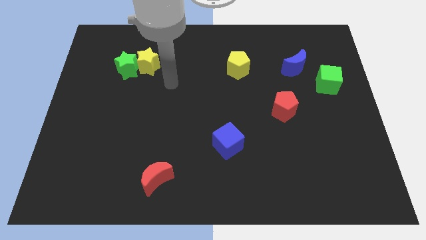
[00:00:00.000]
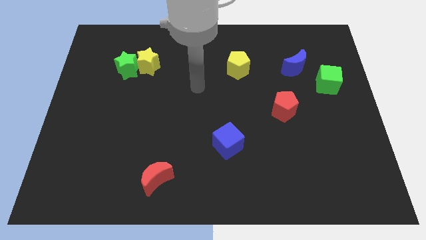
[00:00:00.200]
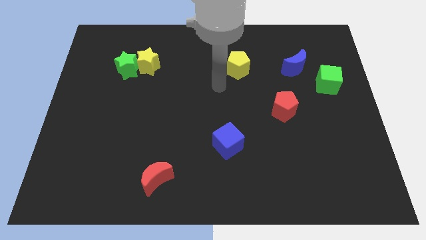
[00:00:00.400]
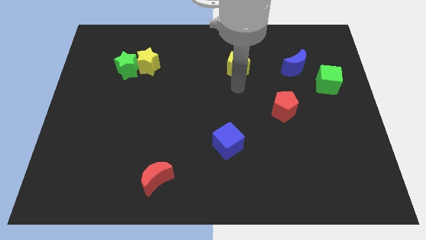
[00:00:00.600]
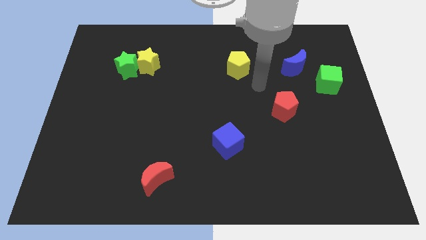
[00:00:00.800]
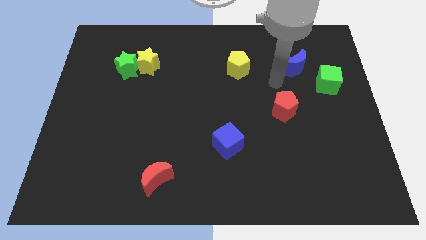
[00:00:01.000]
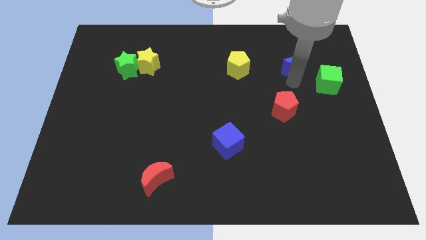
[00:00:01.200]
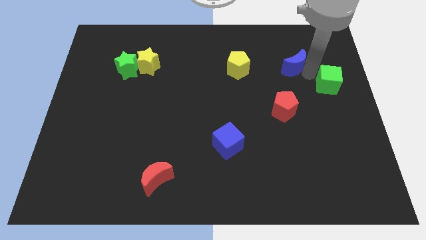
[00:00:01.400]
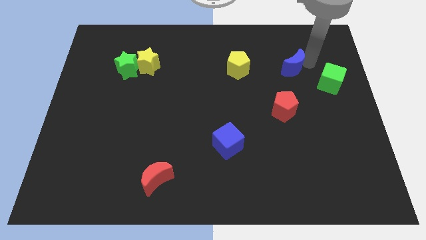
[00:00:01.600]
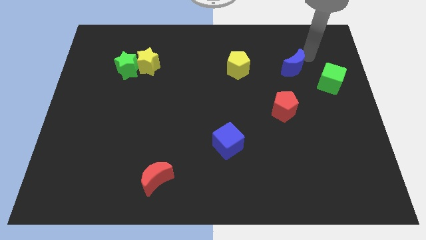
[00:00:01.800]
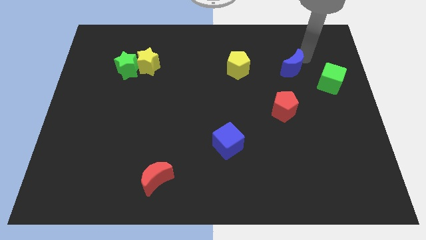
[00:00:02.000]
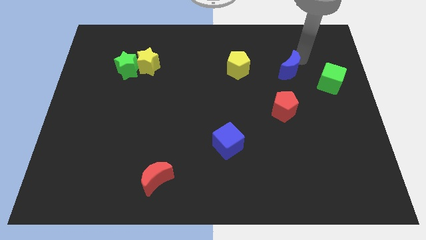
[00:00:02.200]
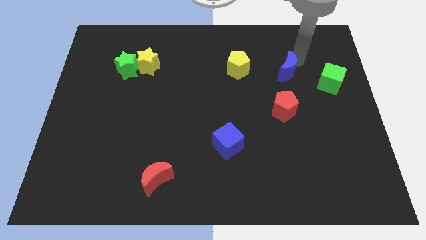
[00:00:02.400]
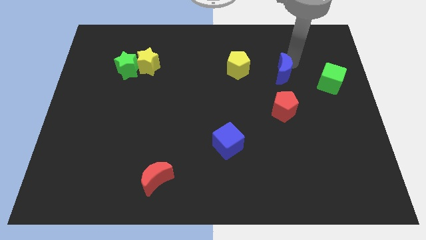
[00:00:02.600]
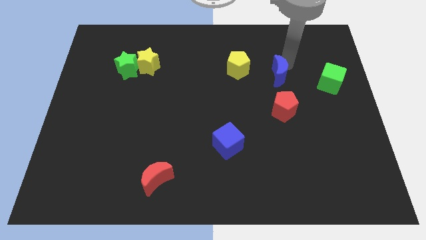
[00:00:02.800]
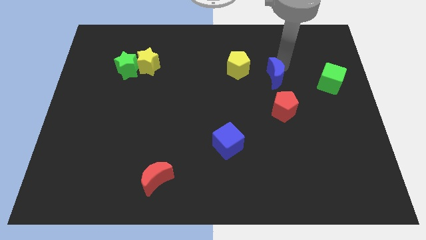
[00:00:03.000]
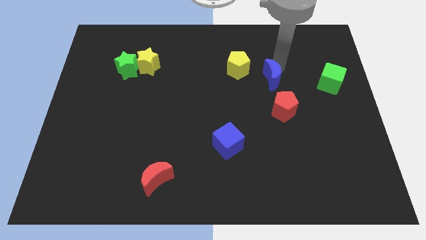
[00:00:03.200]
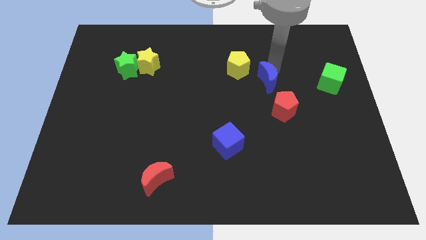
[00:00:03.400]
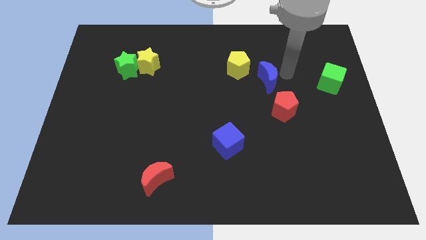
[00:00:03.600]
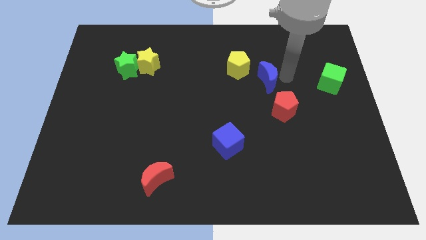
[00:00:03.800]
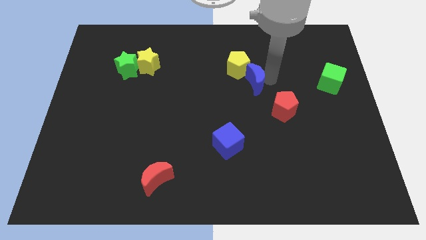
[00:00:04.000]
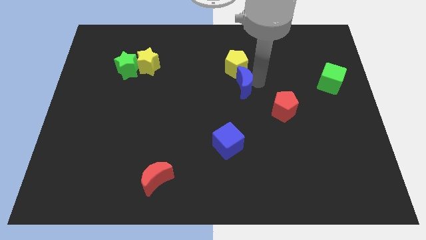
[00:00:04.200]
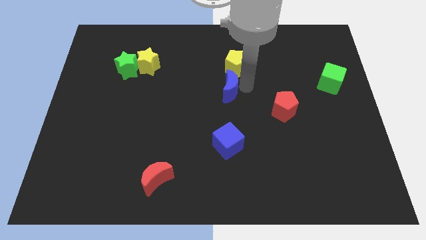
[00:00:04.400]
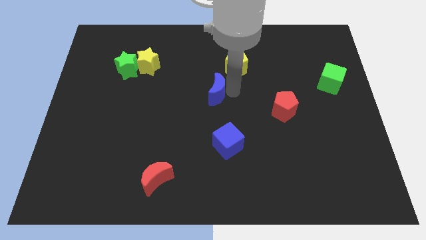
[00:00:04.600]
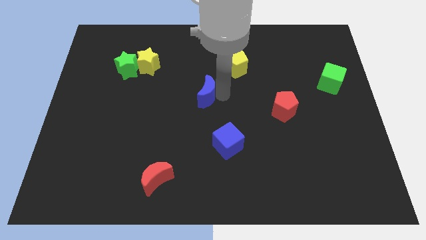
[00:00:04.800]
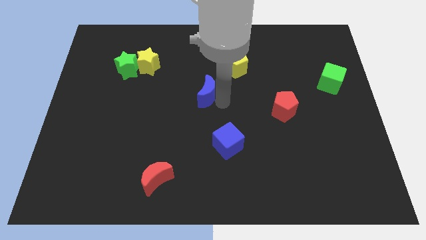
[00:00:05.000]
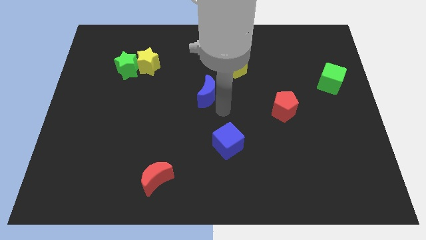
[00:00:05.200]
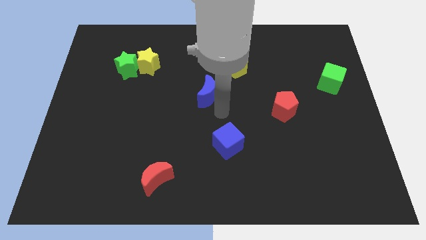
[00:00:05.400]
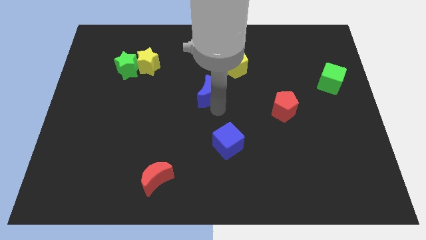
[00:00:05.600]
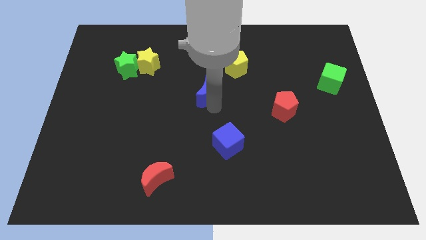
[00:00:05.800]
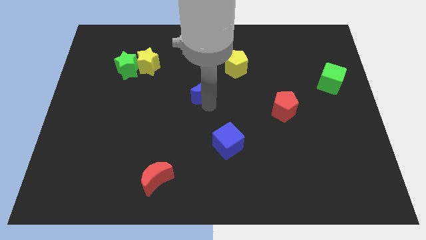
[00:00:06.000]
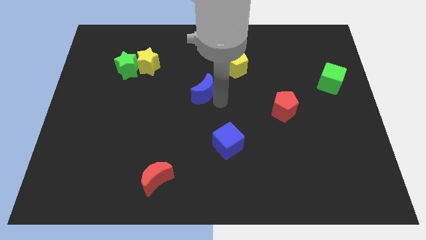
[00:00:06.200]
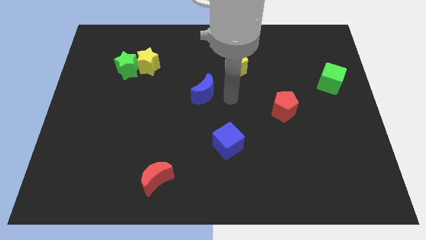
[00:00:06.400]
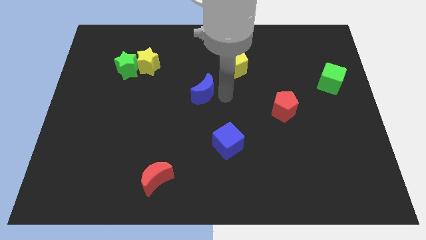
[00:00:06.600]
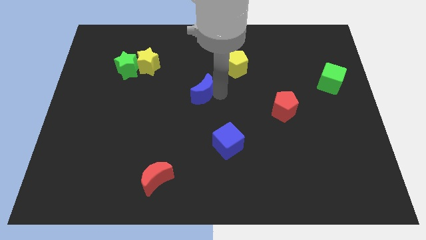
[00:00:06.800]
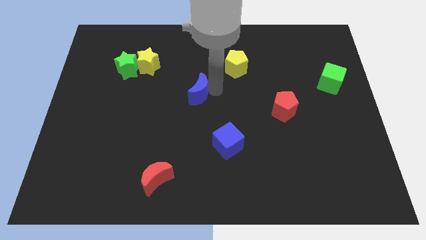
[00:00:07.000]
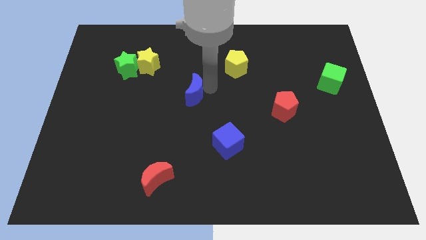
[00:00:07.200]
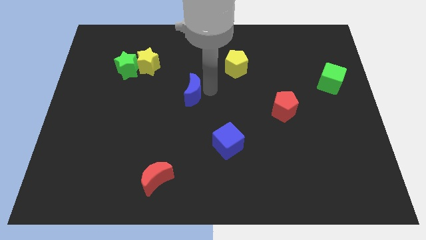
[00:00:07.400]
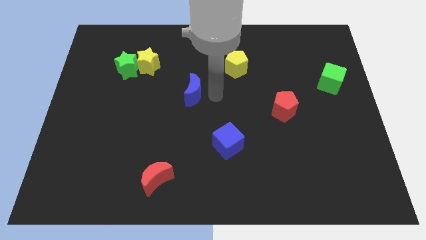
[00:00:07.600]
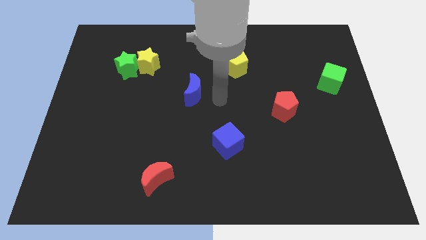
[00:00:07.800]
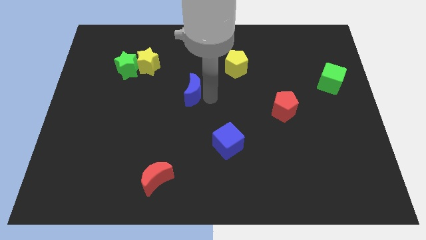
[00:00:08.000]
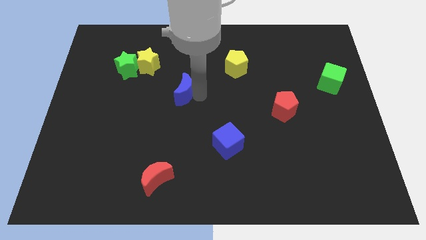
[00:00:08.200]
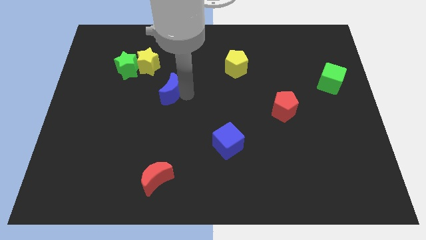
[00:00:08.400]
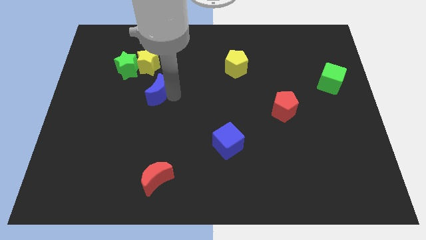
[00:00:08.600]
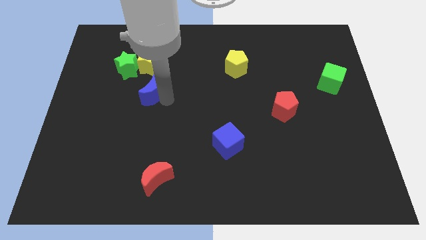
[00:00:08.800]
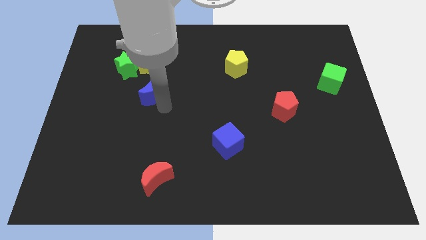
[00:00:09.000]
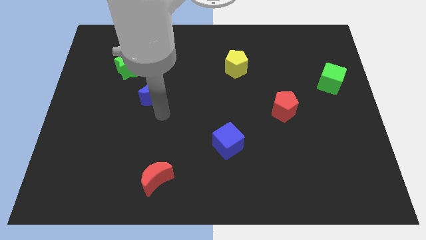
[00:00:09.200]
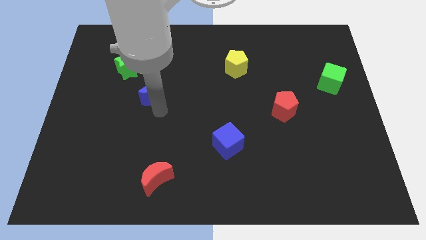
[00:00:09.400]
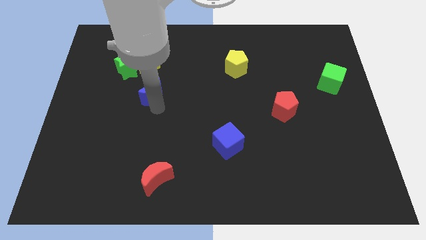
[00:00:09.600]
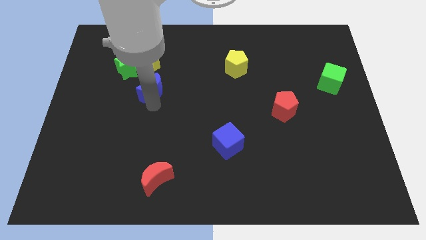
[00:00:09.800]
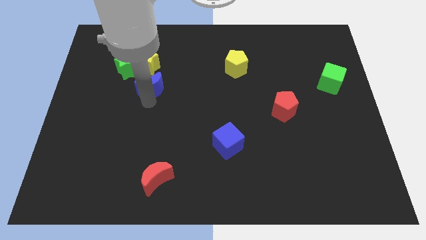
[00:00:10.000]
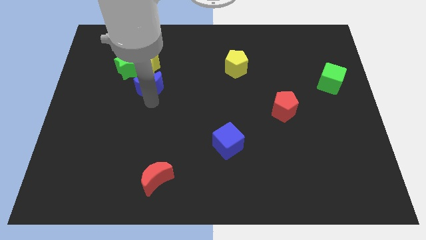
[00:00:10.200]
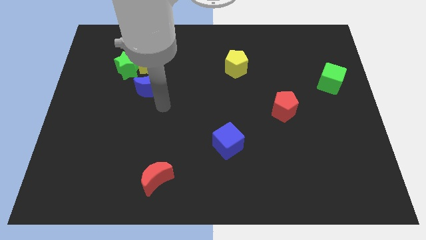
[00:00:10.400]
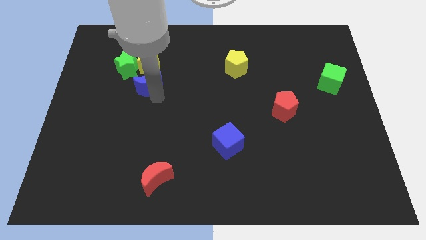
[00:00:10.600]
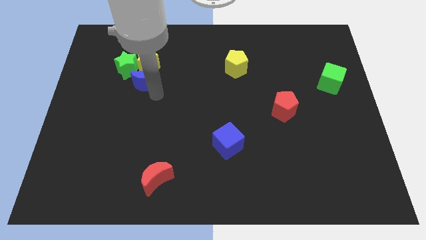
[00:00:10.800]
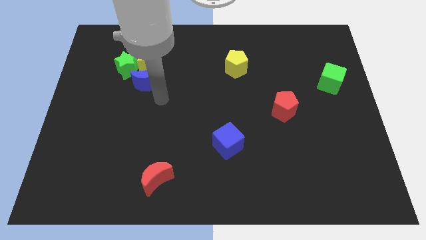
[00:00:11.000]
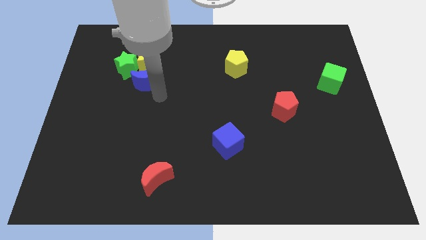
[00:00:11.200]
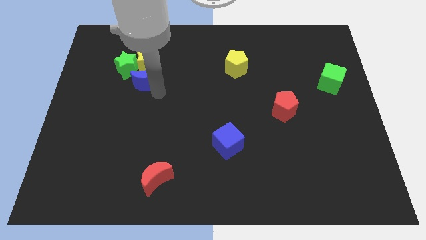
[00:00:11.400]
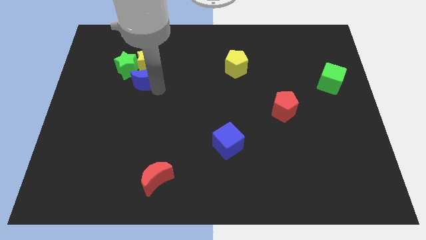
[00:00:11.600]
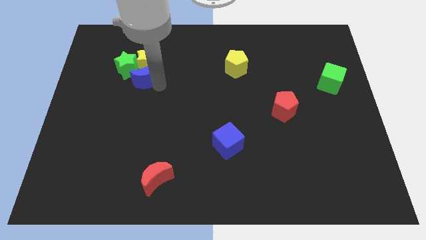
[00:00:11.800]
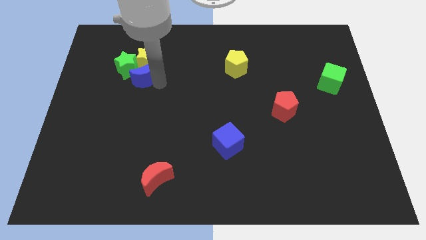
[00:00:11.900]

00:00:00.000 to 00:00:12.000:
put the blue moon next to the green star
